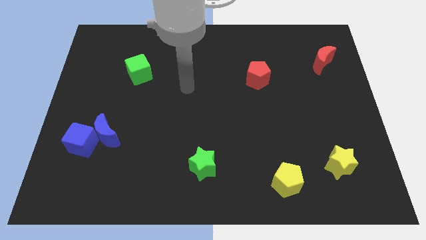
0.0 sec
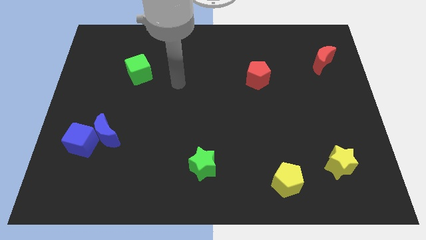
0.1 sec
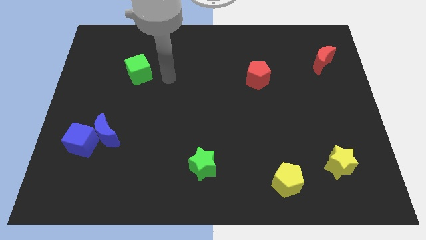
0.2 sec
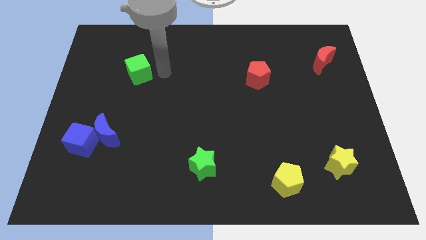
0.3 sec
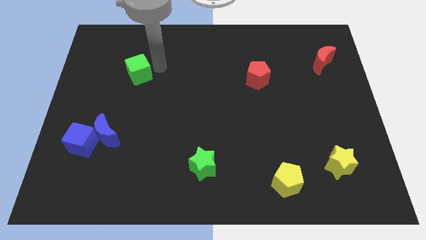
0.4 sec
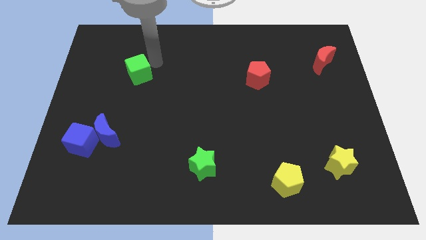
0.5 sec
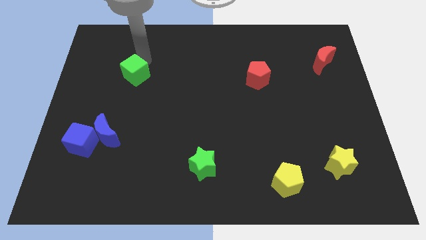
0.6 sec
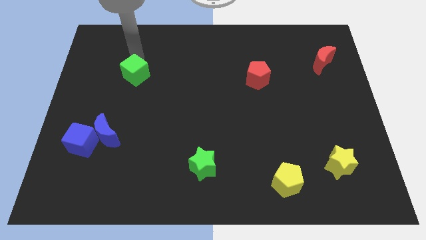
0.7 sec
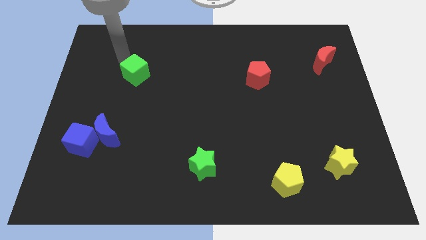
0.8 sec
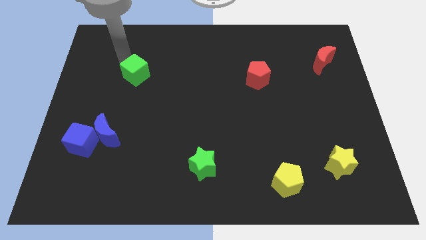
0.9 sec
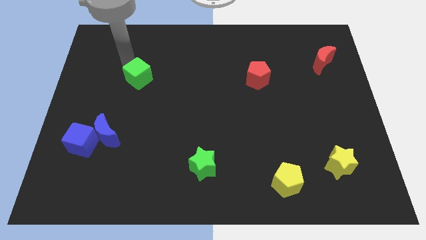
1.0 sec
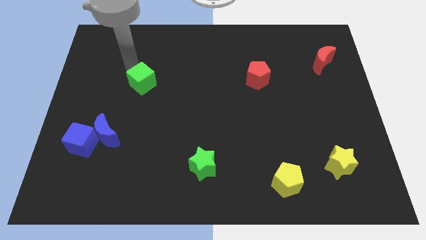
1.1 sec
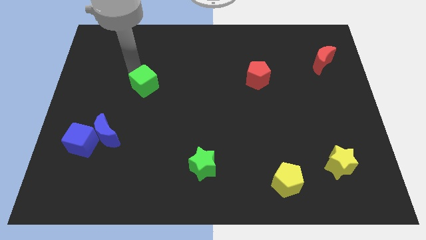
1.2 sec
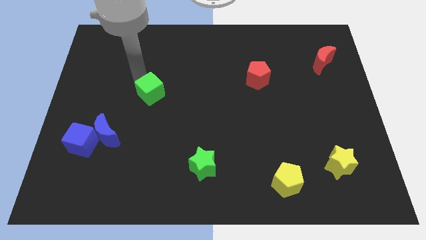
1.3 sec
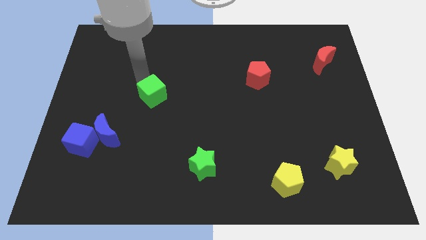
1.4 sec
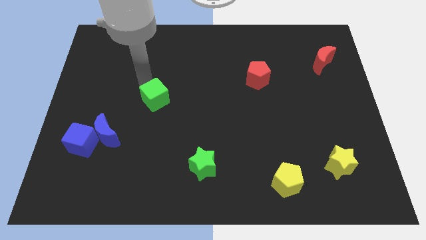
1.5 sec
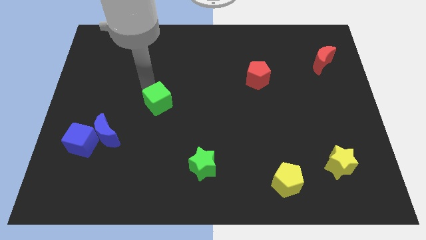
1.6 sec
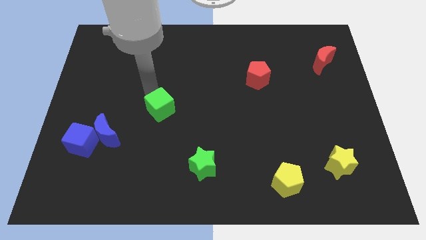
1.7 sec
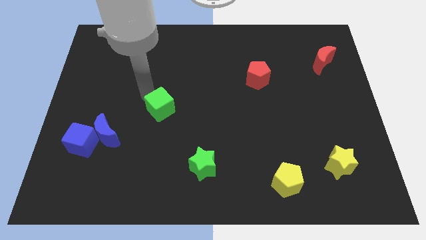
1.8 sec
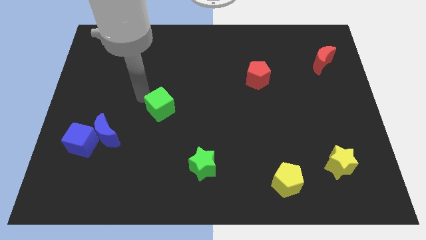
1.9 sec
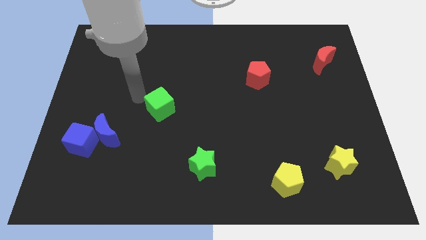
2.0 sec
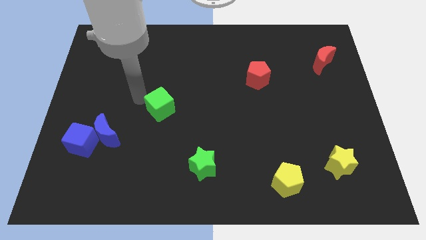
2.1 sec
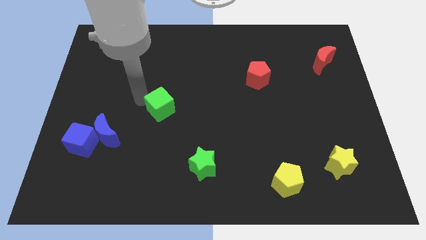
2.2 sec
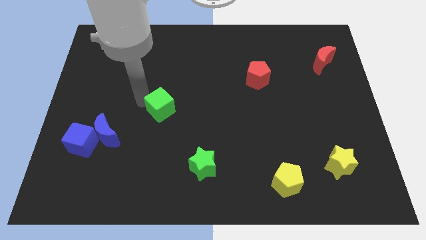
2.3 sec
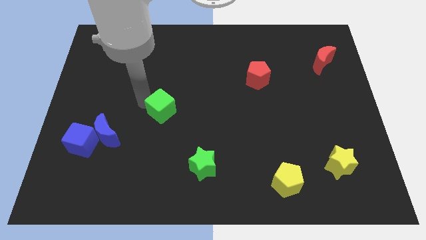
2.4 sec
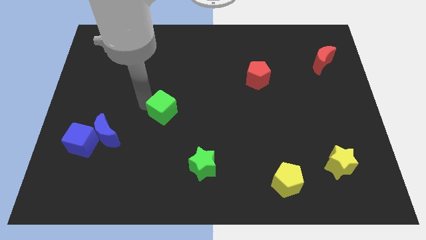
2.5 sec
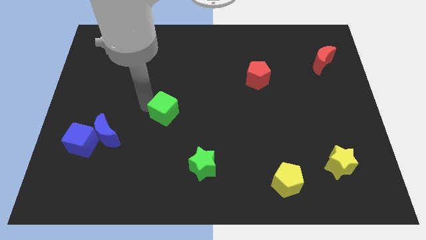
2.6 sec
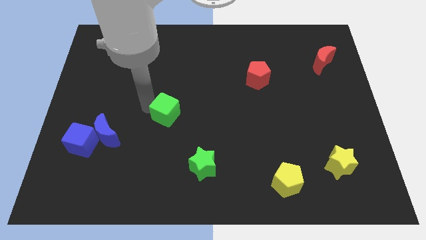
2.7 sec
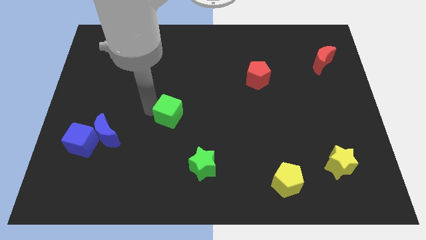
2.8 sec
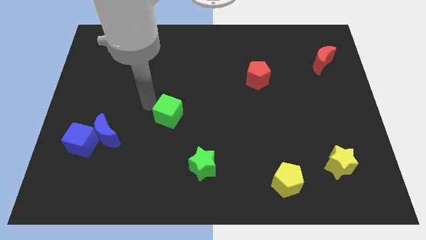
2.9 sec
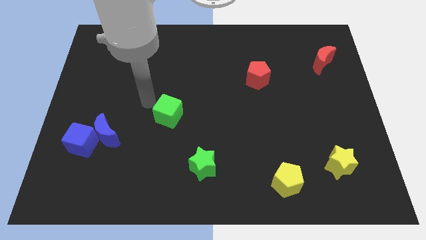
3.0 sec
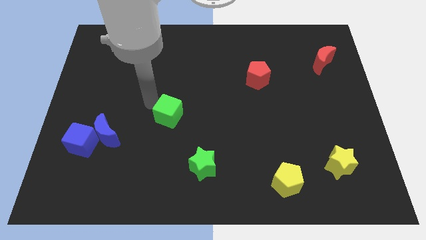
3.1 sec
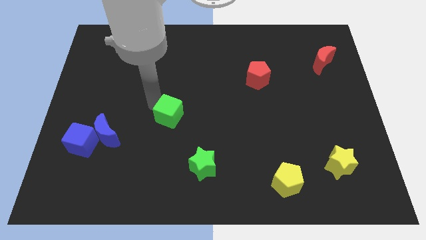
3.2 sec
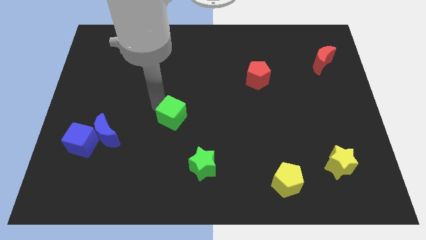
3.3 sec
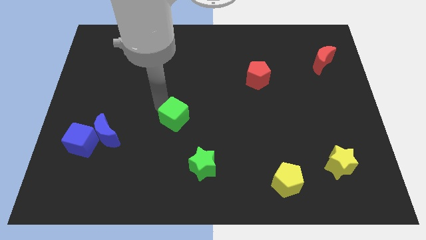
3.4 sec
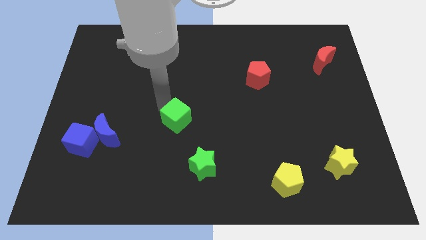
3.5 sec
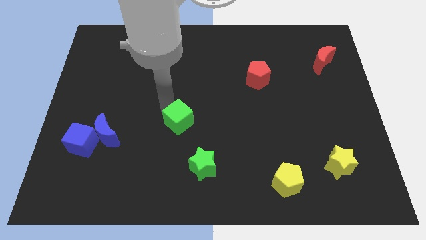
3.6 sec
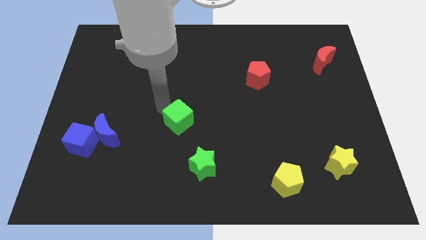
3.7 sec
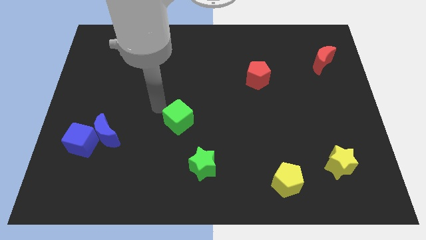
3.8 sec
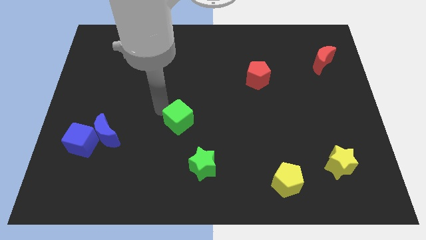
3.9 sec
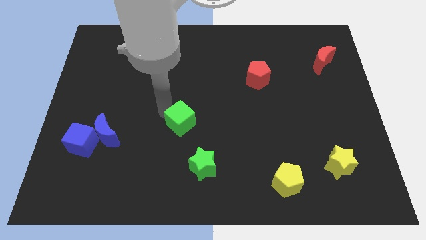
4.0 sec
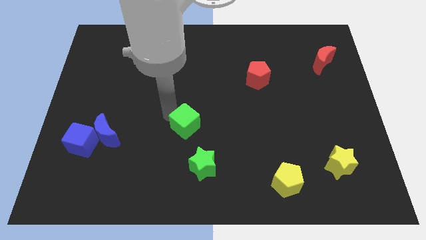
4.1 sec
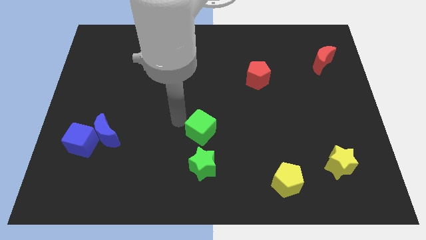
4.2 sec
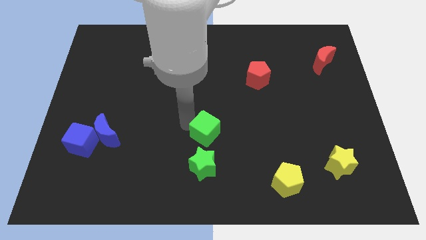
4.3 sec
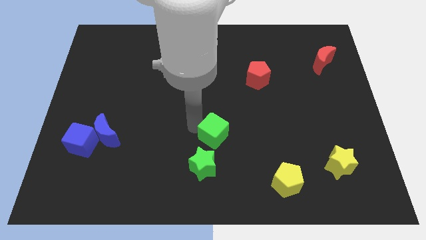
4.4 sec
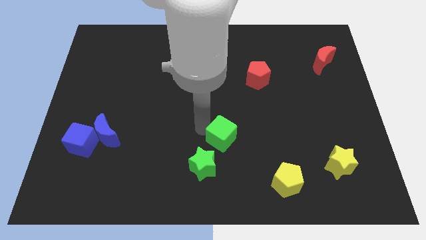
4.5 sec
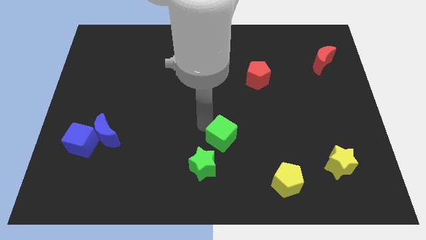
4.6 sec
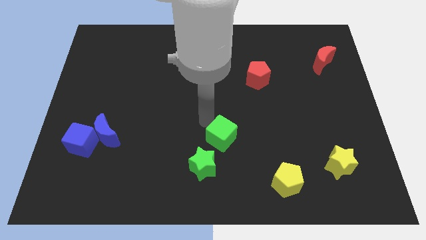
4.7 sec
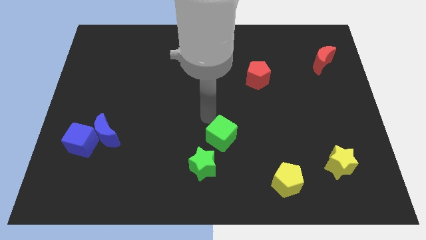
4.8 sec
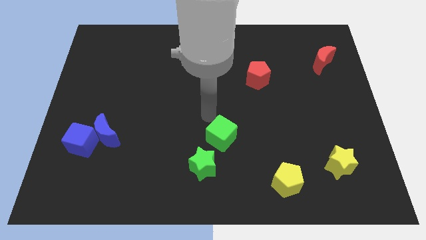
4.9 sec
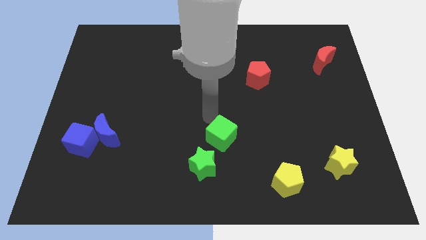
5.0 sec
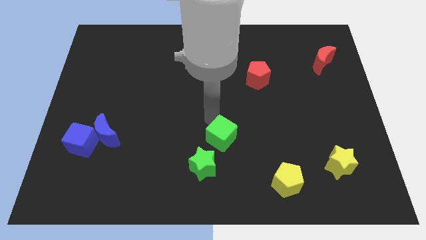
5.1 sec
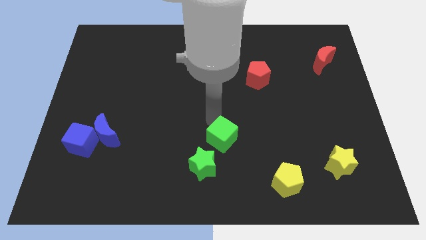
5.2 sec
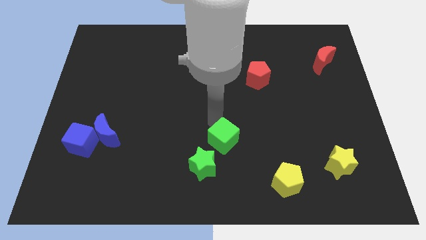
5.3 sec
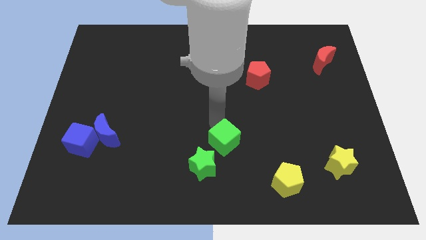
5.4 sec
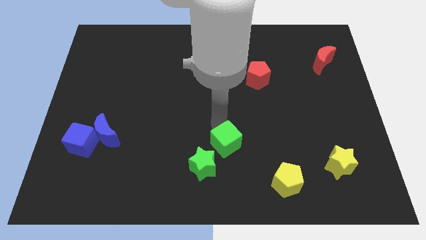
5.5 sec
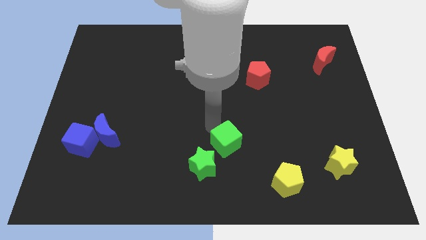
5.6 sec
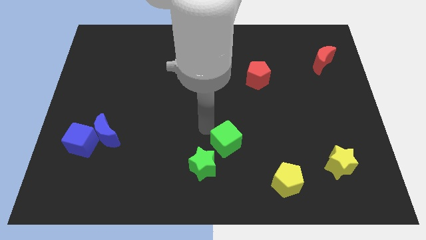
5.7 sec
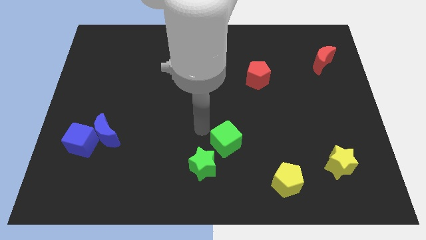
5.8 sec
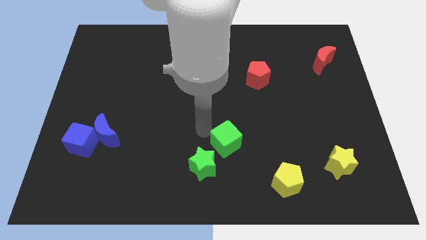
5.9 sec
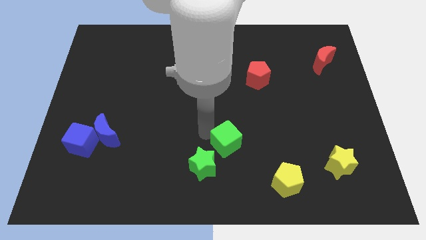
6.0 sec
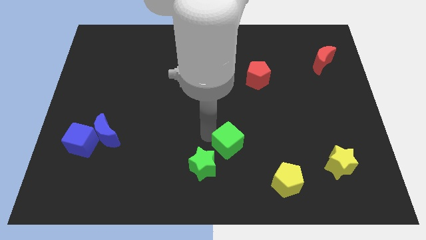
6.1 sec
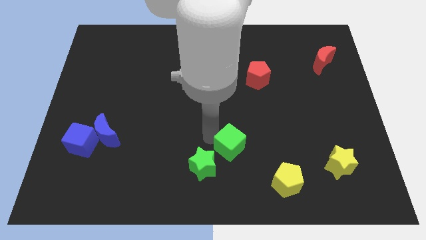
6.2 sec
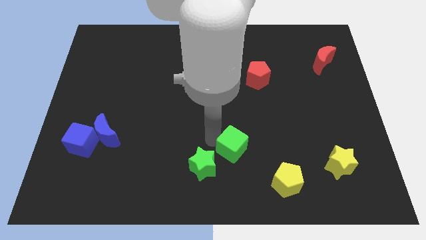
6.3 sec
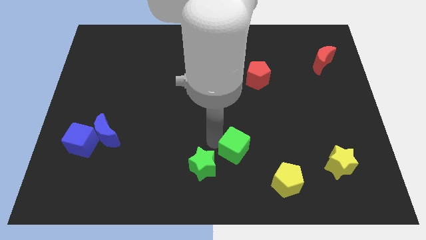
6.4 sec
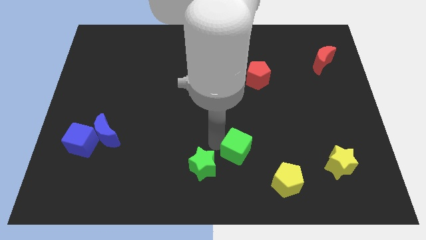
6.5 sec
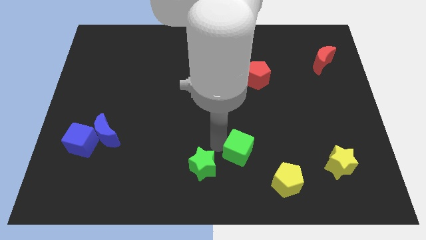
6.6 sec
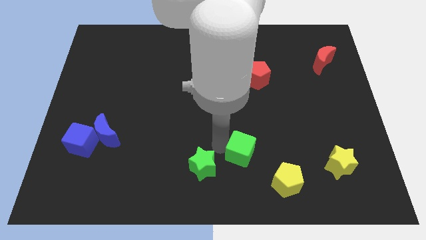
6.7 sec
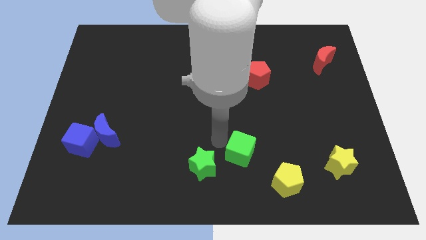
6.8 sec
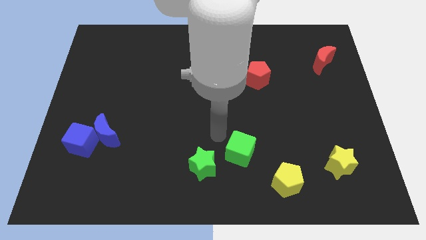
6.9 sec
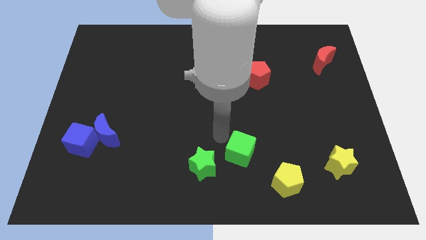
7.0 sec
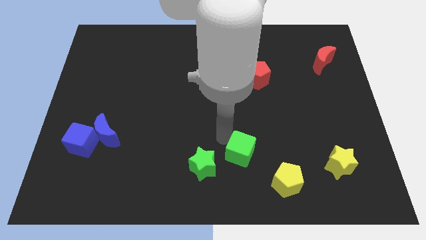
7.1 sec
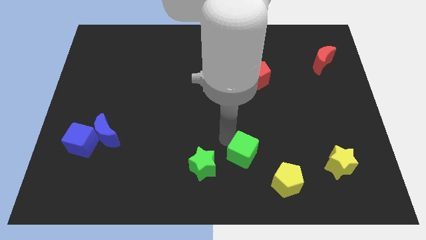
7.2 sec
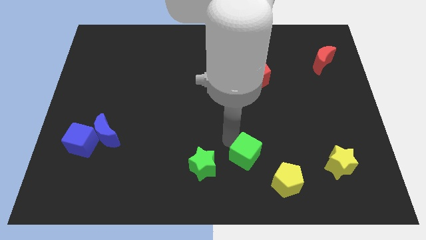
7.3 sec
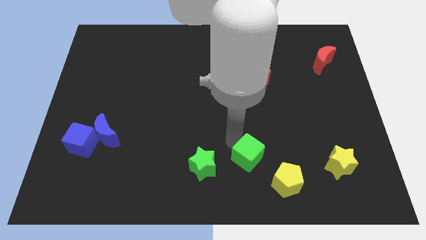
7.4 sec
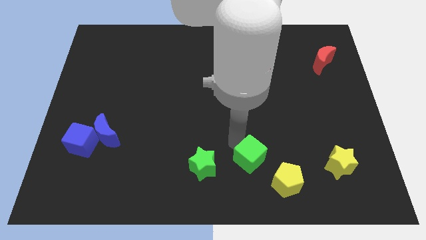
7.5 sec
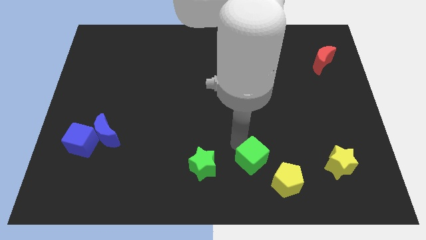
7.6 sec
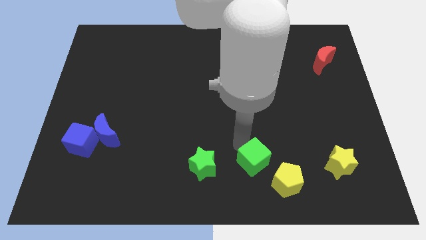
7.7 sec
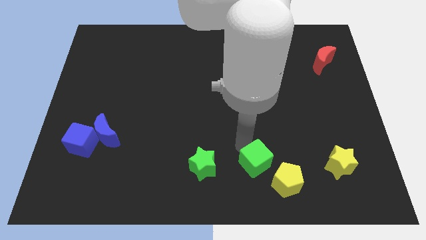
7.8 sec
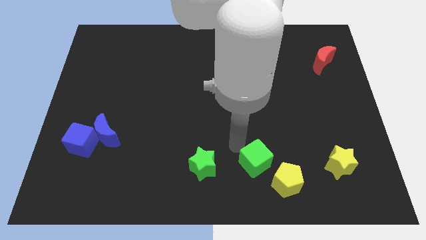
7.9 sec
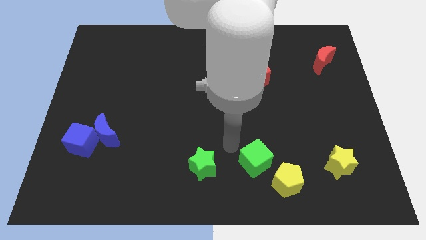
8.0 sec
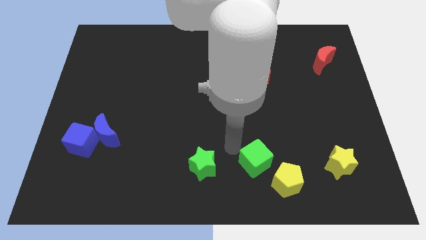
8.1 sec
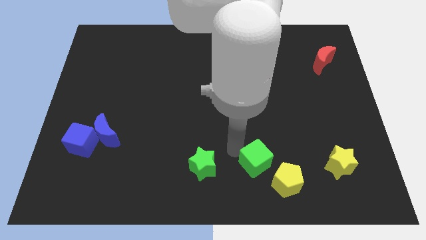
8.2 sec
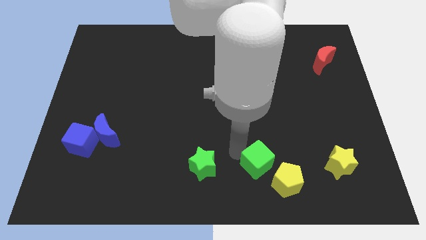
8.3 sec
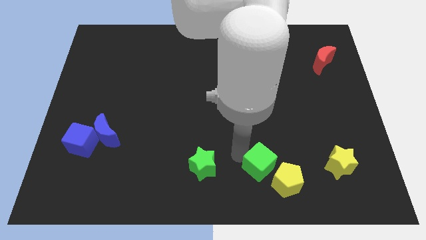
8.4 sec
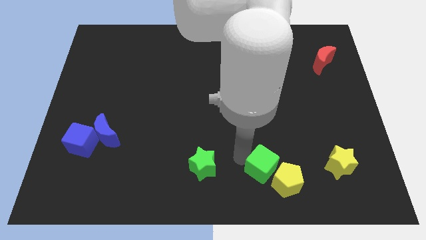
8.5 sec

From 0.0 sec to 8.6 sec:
move the green cube next to the yellow pentagon
